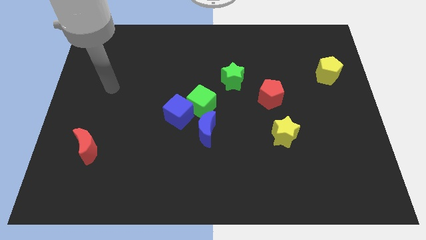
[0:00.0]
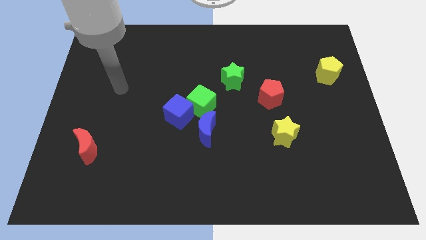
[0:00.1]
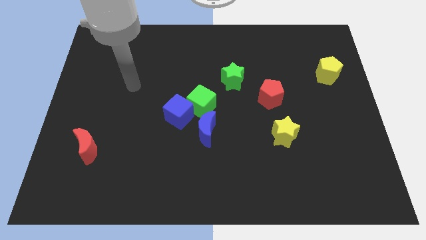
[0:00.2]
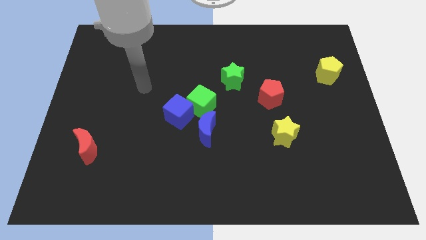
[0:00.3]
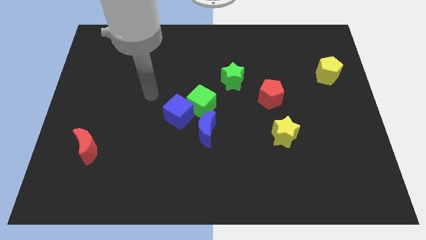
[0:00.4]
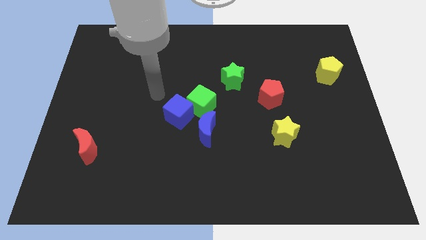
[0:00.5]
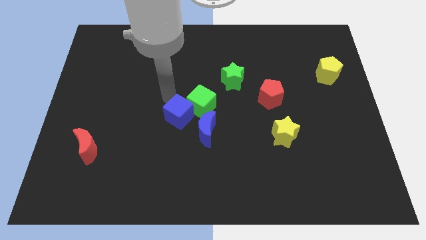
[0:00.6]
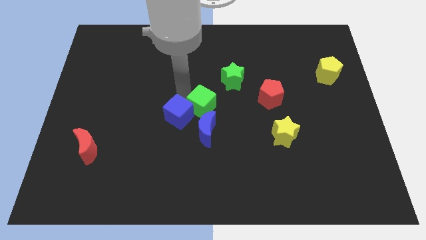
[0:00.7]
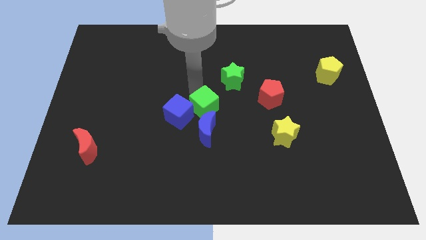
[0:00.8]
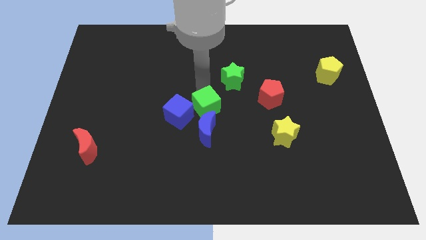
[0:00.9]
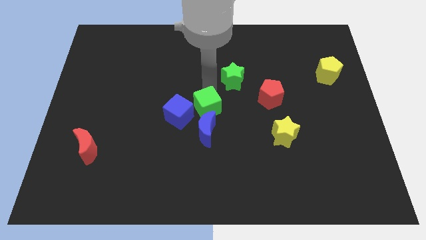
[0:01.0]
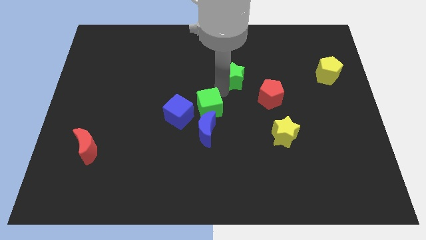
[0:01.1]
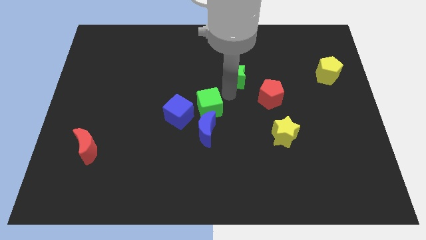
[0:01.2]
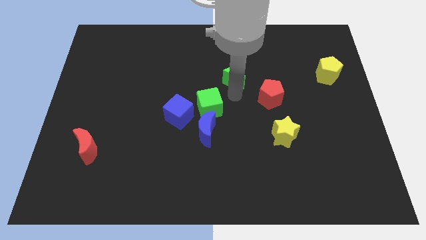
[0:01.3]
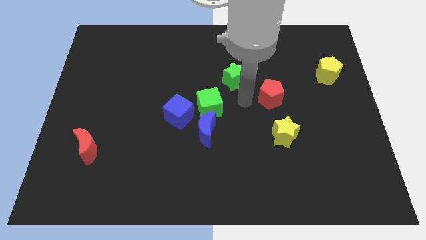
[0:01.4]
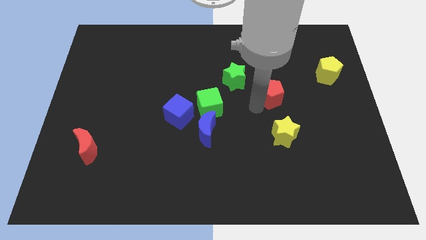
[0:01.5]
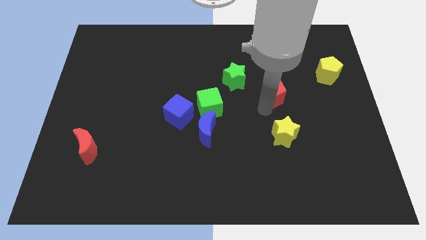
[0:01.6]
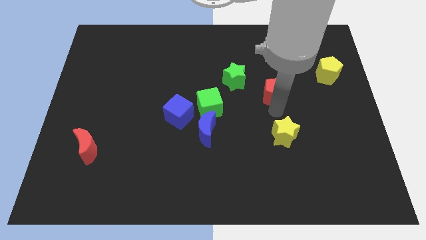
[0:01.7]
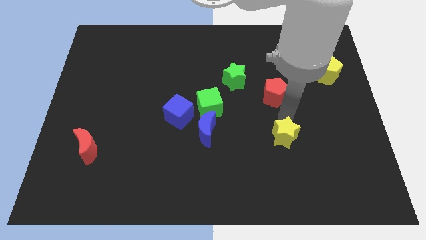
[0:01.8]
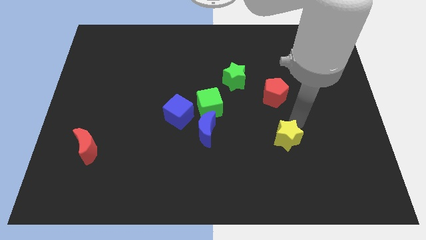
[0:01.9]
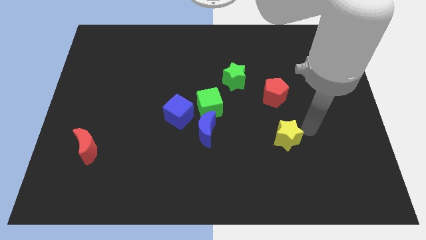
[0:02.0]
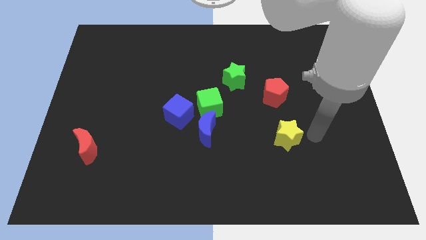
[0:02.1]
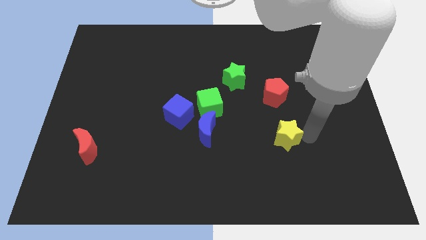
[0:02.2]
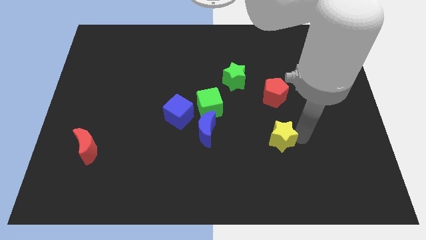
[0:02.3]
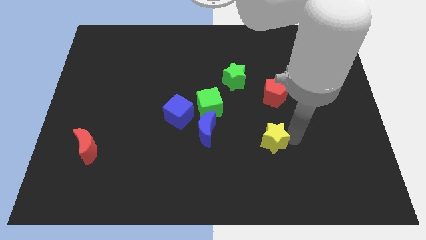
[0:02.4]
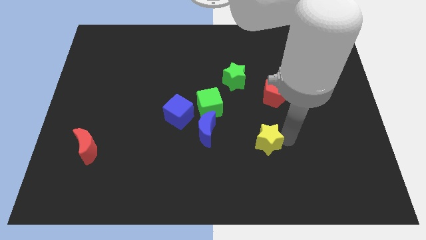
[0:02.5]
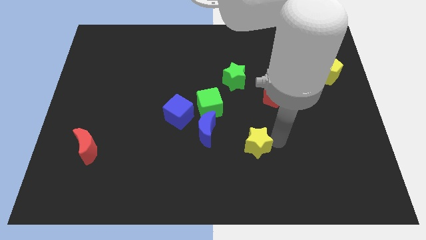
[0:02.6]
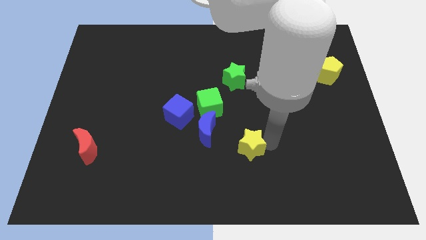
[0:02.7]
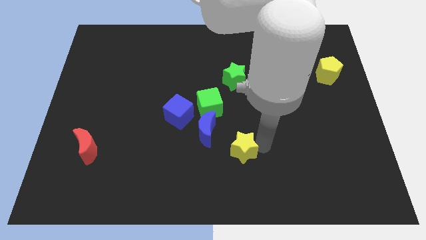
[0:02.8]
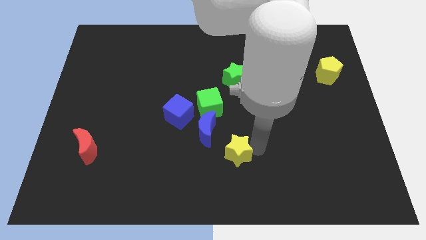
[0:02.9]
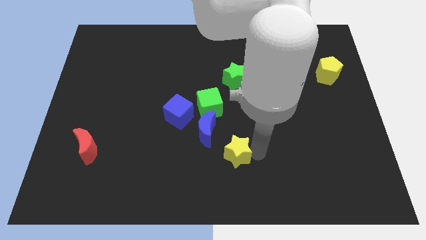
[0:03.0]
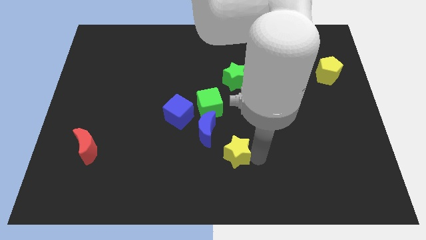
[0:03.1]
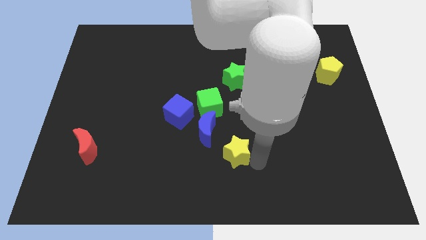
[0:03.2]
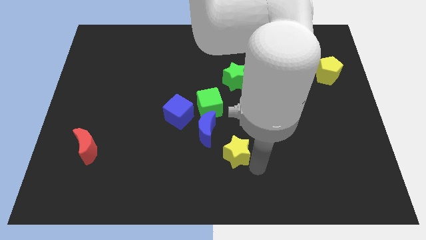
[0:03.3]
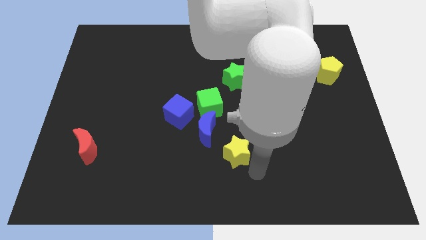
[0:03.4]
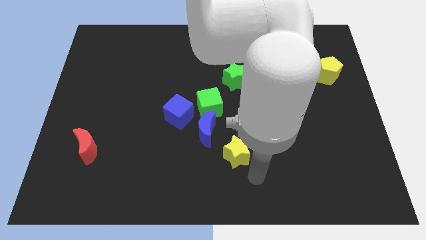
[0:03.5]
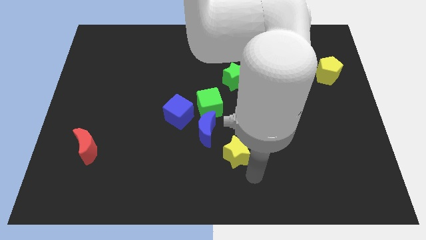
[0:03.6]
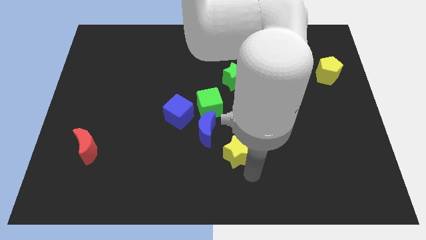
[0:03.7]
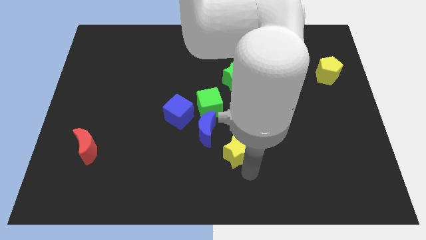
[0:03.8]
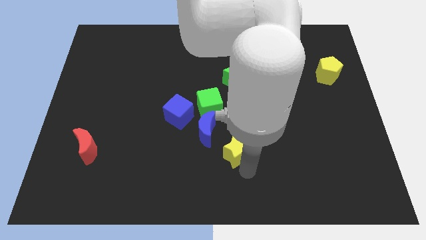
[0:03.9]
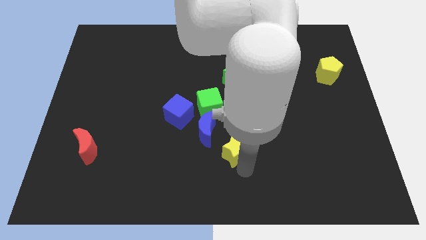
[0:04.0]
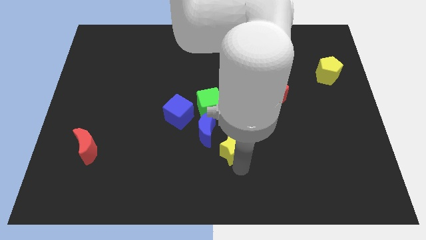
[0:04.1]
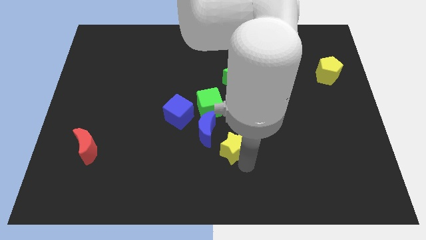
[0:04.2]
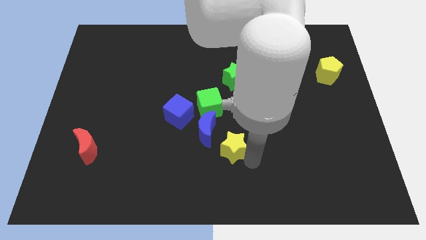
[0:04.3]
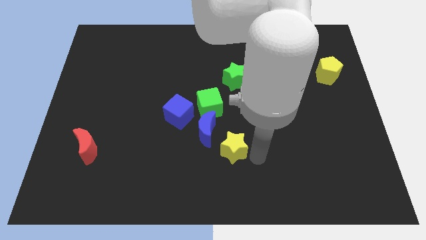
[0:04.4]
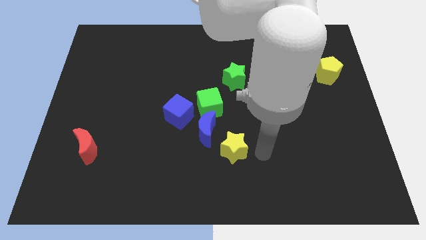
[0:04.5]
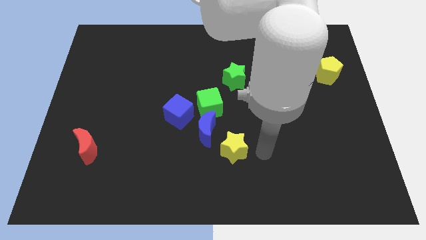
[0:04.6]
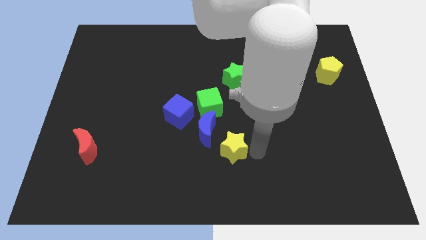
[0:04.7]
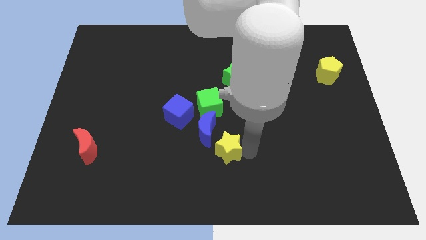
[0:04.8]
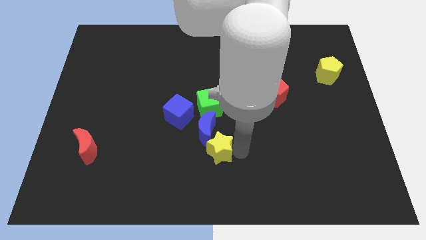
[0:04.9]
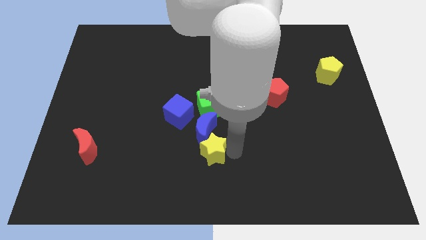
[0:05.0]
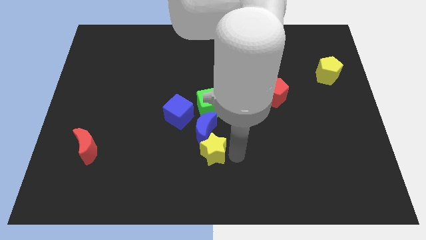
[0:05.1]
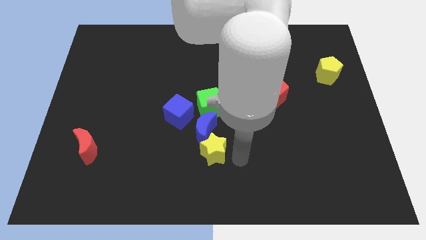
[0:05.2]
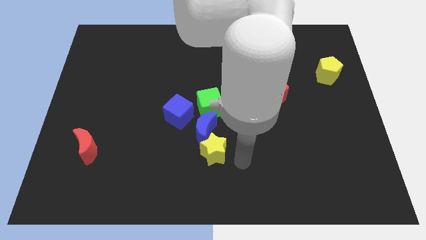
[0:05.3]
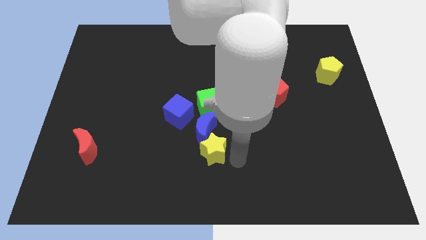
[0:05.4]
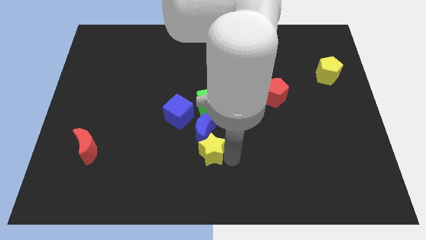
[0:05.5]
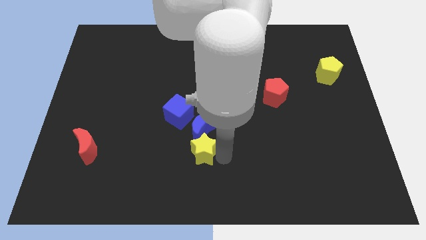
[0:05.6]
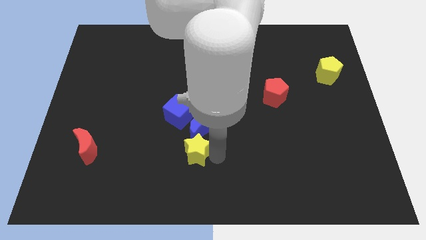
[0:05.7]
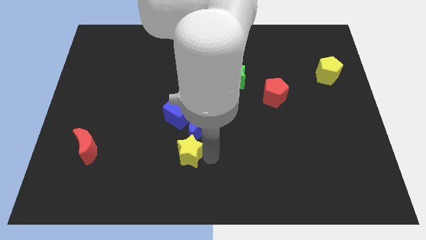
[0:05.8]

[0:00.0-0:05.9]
slide the yellow star to the left

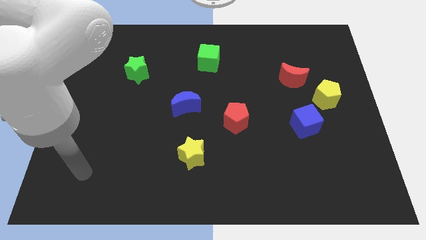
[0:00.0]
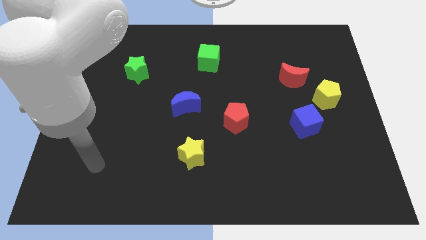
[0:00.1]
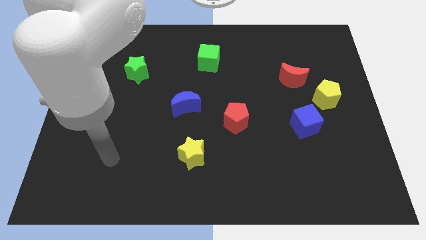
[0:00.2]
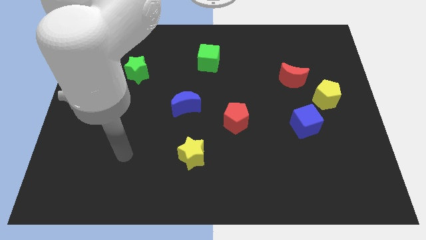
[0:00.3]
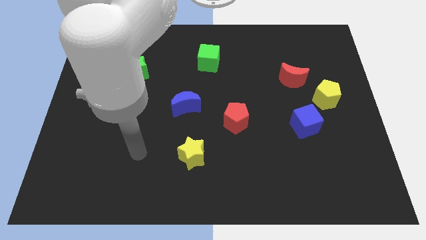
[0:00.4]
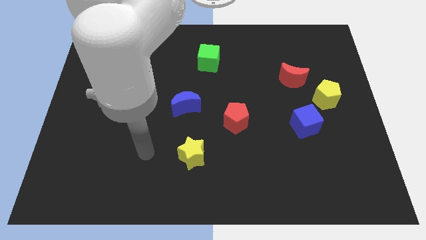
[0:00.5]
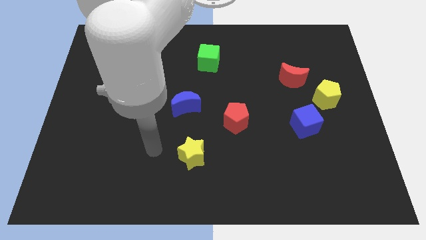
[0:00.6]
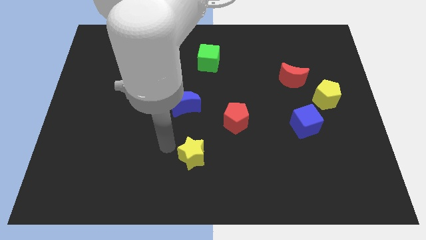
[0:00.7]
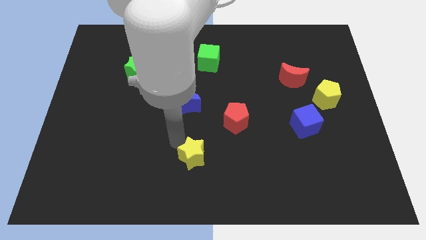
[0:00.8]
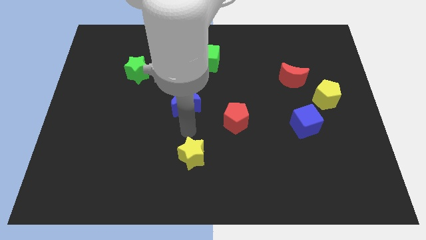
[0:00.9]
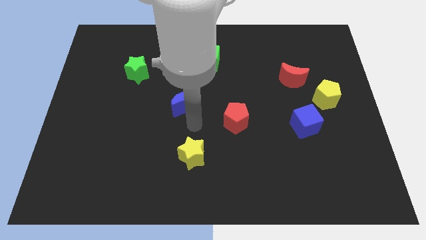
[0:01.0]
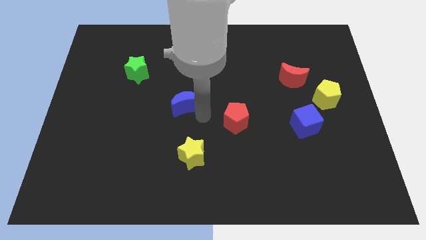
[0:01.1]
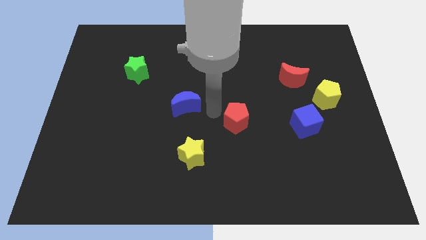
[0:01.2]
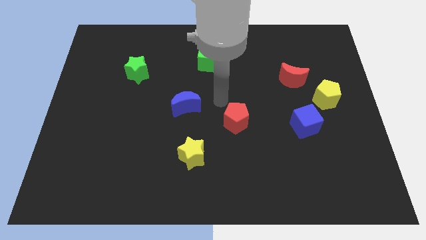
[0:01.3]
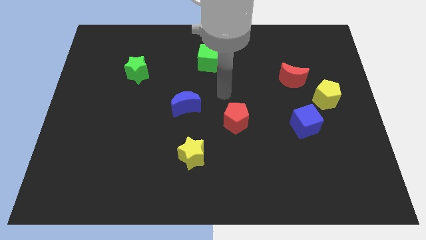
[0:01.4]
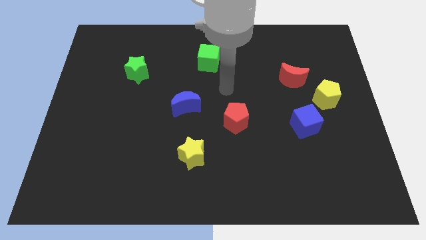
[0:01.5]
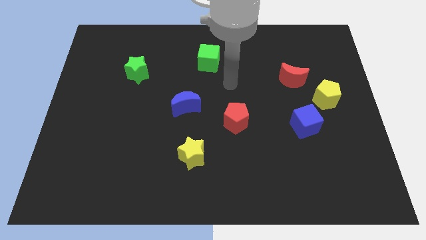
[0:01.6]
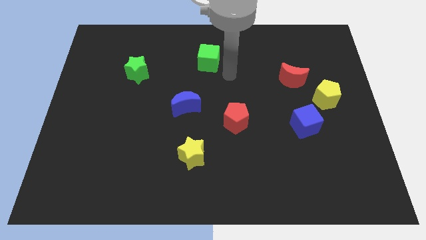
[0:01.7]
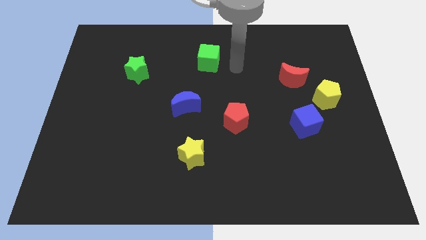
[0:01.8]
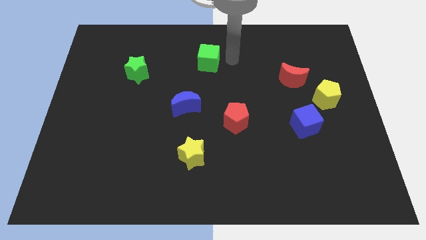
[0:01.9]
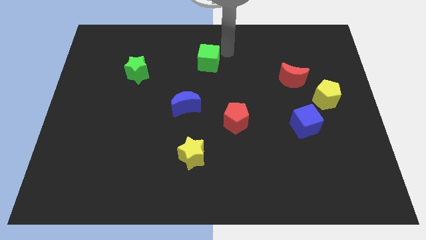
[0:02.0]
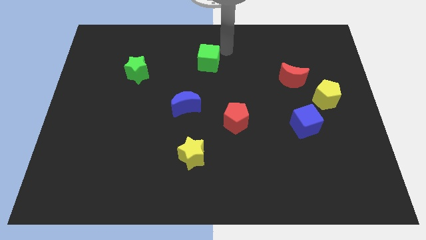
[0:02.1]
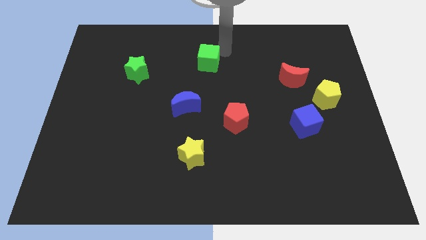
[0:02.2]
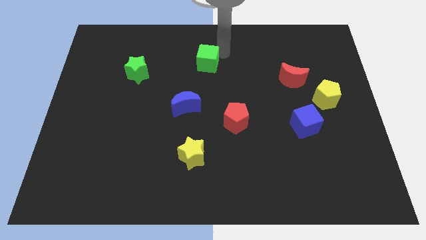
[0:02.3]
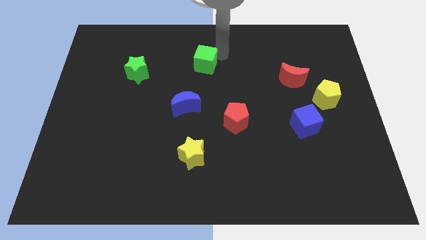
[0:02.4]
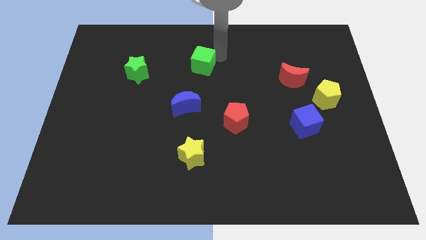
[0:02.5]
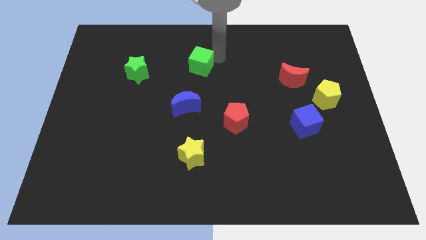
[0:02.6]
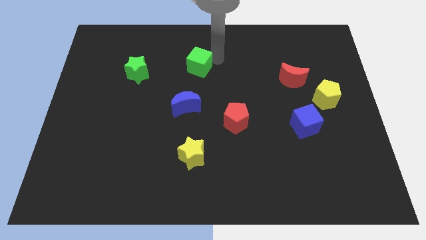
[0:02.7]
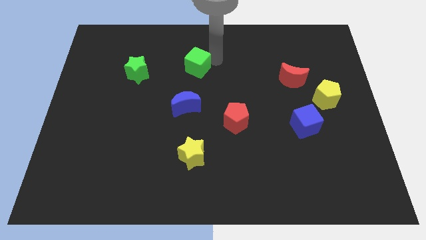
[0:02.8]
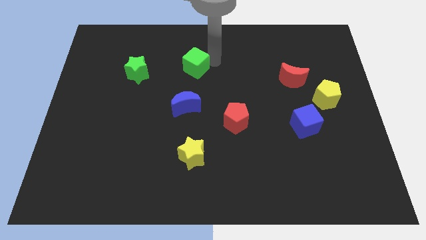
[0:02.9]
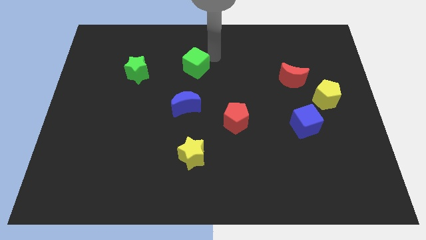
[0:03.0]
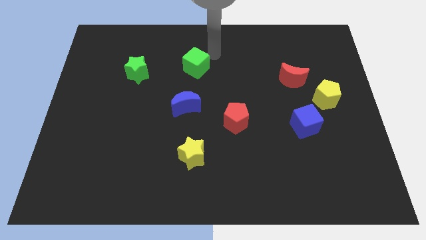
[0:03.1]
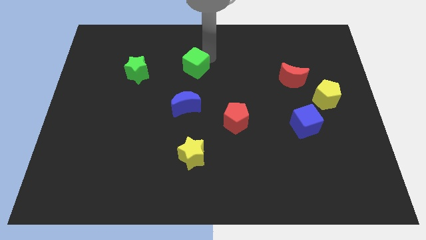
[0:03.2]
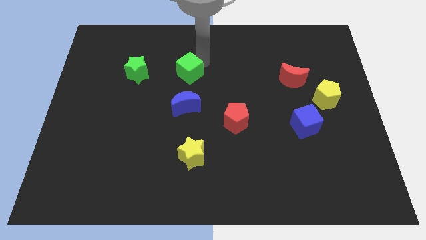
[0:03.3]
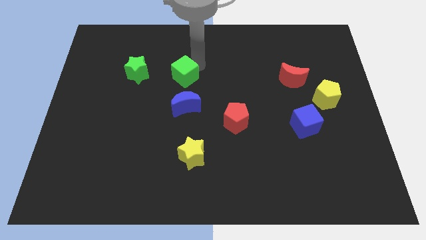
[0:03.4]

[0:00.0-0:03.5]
slightly push the green cube downwards and to the left diagonally
